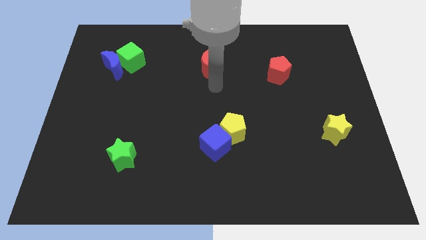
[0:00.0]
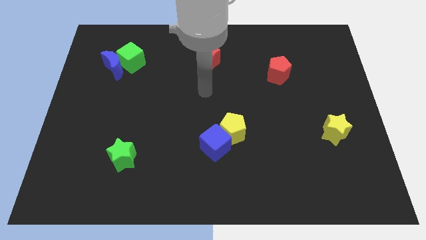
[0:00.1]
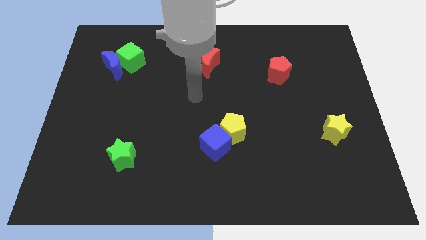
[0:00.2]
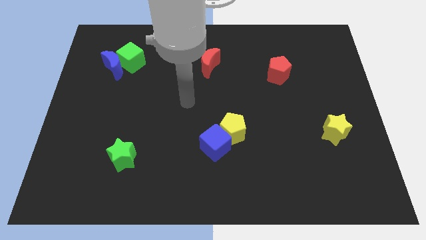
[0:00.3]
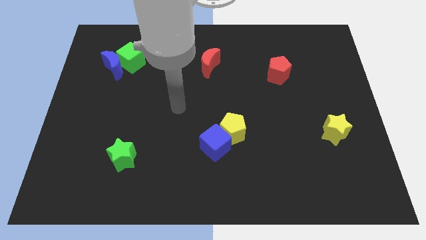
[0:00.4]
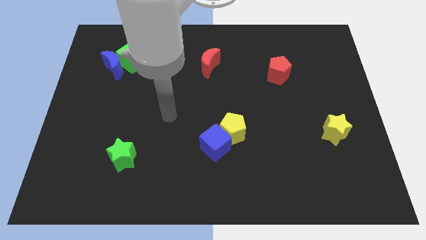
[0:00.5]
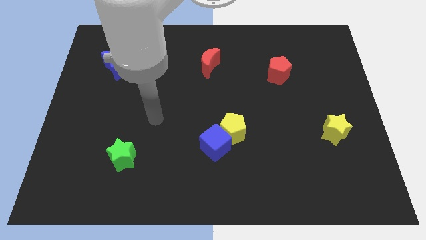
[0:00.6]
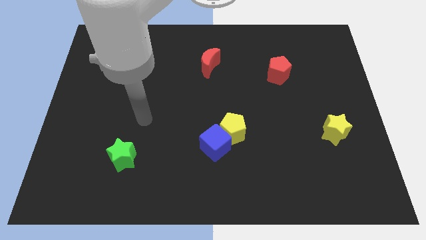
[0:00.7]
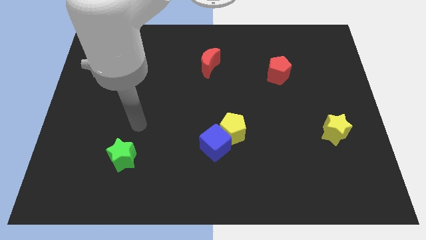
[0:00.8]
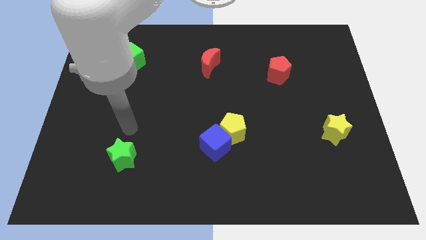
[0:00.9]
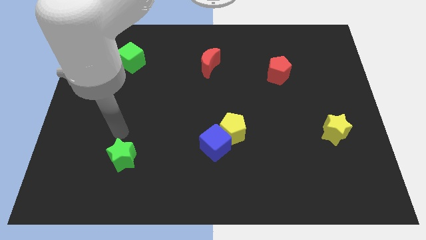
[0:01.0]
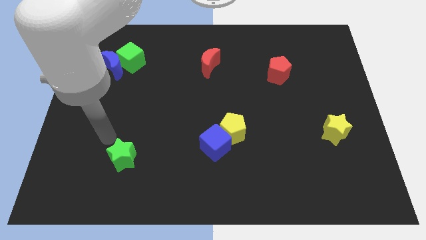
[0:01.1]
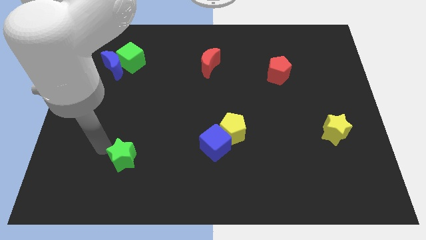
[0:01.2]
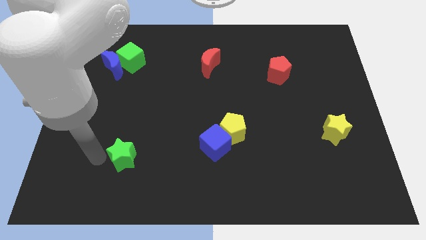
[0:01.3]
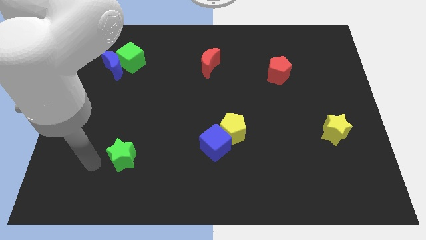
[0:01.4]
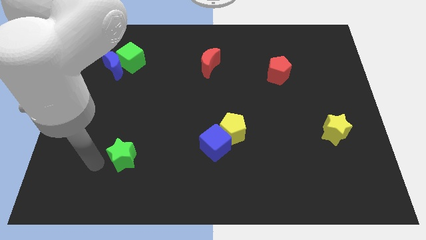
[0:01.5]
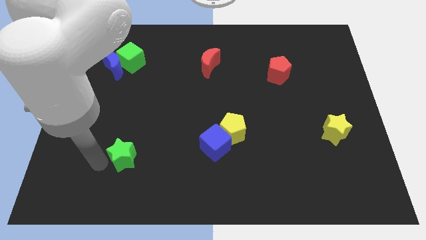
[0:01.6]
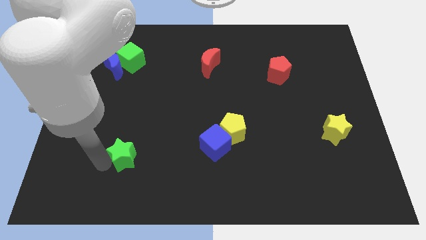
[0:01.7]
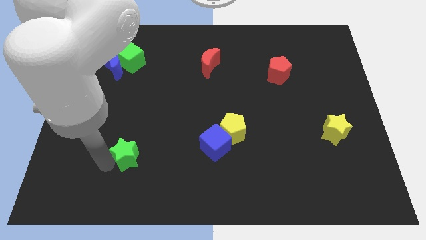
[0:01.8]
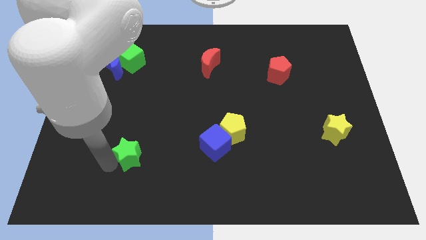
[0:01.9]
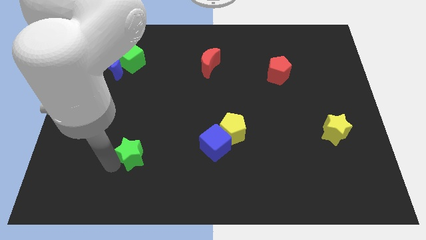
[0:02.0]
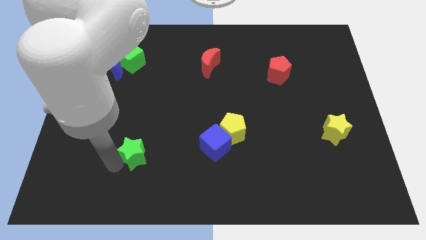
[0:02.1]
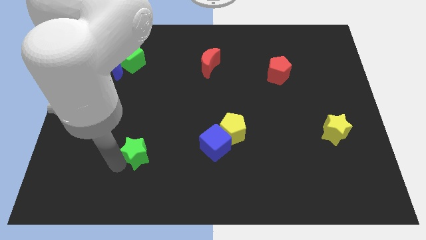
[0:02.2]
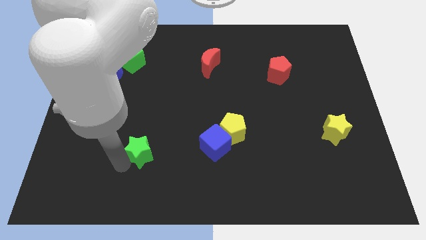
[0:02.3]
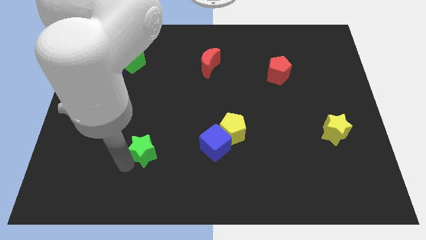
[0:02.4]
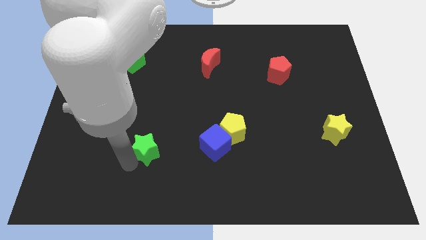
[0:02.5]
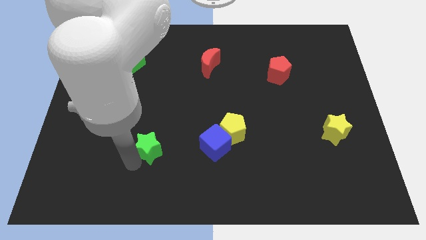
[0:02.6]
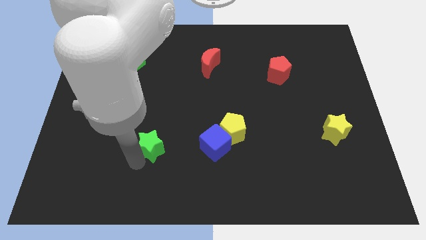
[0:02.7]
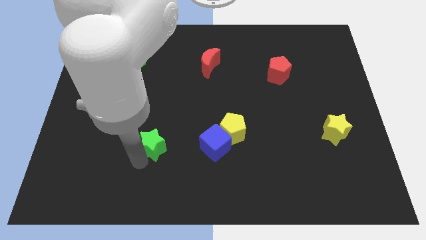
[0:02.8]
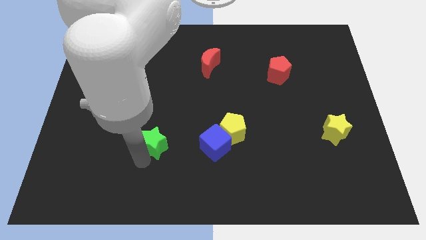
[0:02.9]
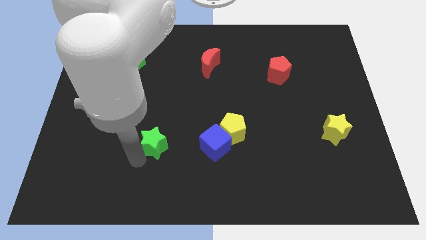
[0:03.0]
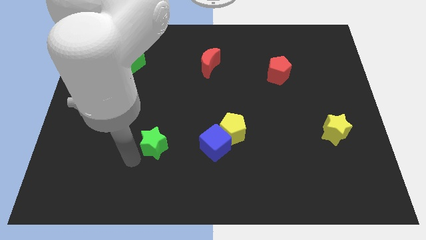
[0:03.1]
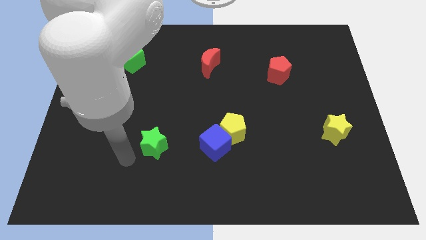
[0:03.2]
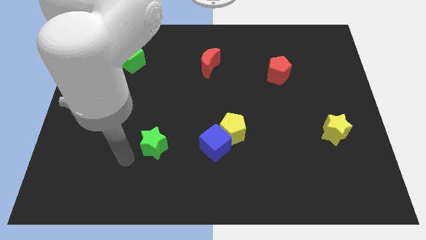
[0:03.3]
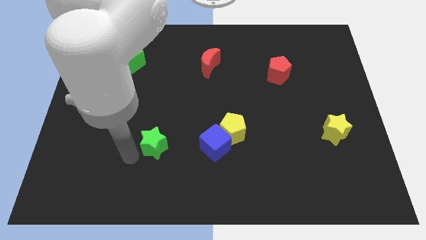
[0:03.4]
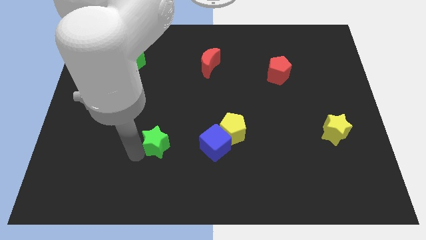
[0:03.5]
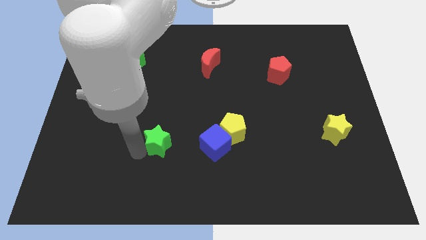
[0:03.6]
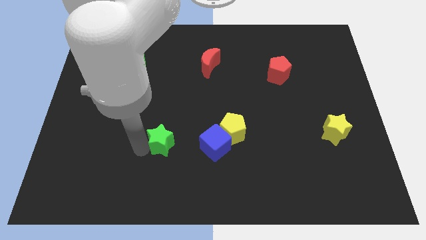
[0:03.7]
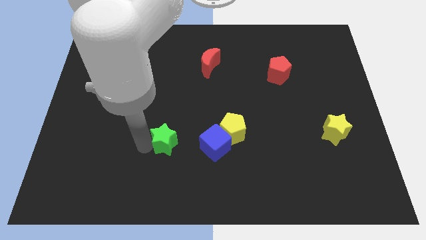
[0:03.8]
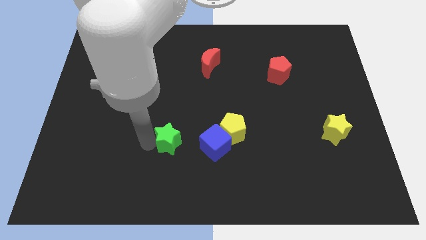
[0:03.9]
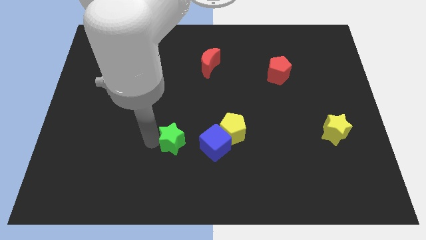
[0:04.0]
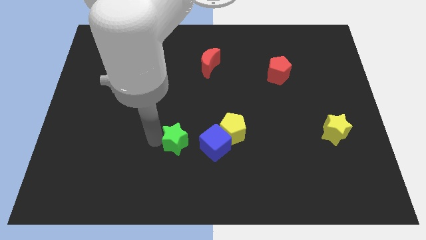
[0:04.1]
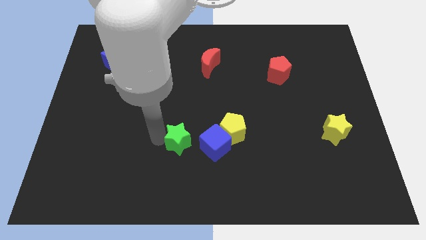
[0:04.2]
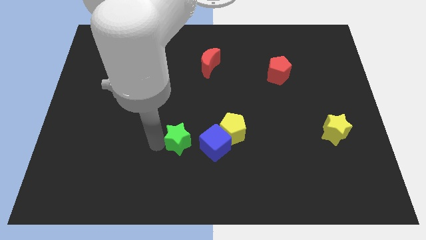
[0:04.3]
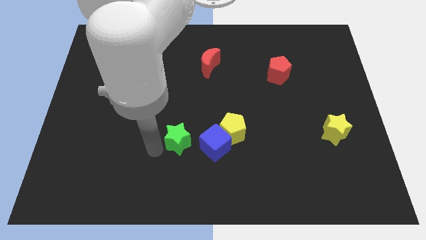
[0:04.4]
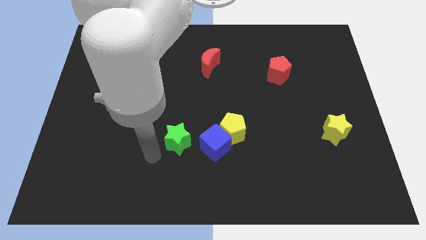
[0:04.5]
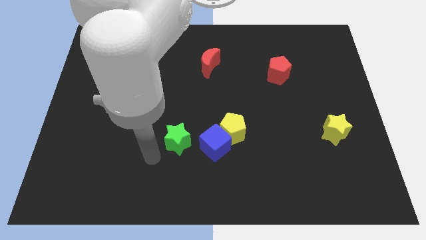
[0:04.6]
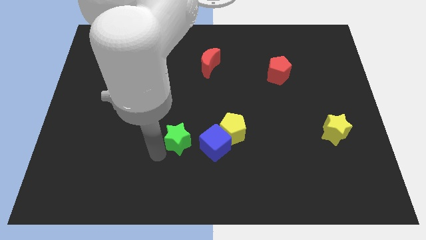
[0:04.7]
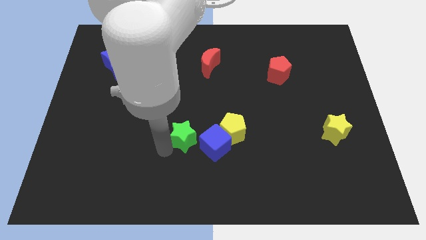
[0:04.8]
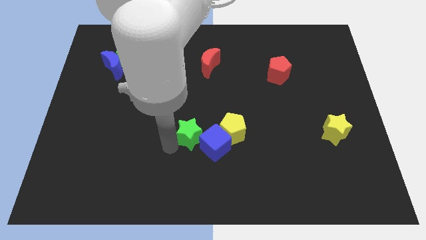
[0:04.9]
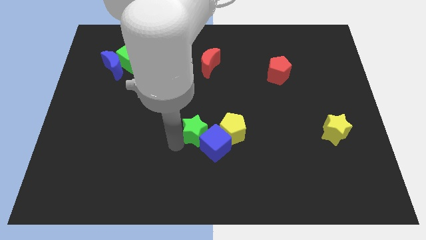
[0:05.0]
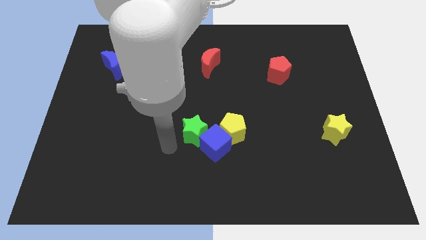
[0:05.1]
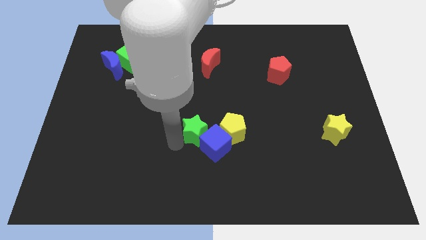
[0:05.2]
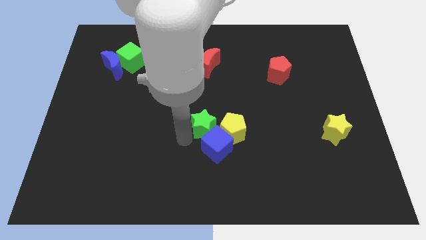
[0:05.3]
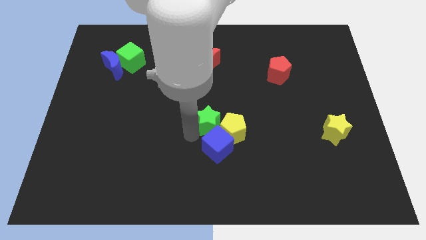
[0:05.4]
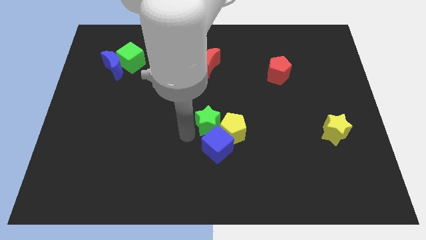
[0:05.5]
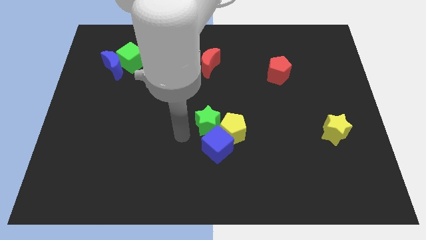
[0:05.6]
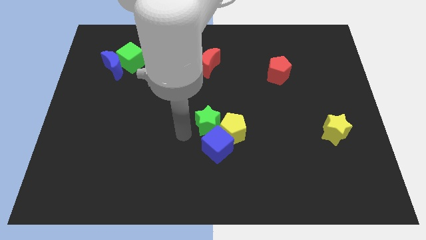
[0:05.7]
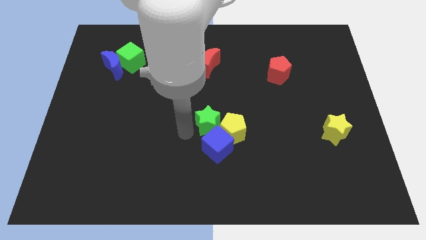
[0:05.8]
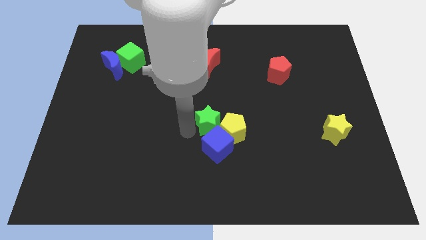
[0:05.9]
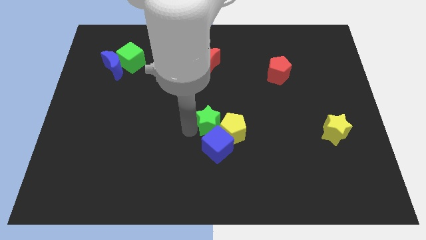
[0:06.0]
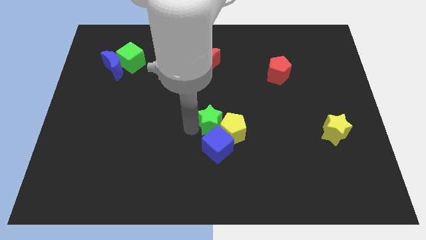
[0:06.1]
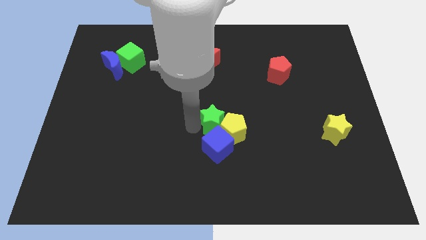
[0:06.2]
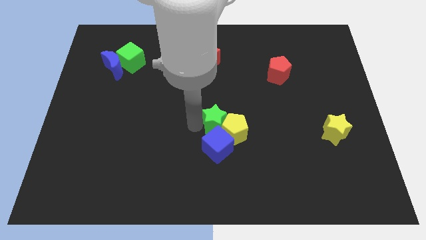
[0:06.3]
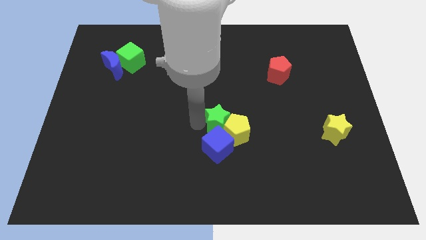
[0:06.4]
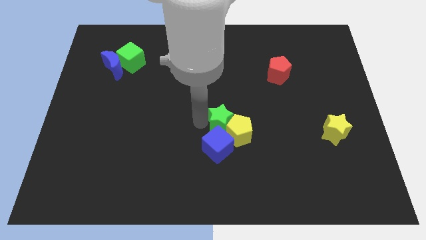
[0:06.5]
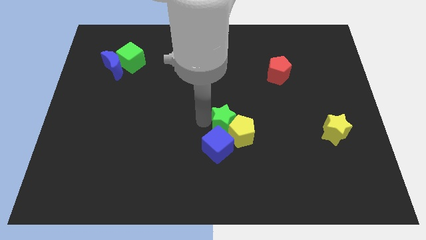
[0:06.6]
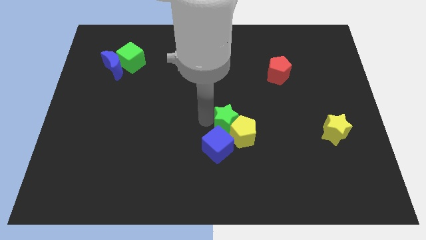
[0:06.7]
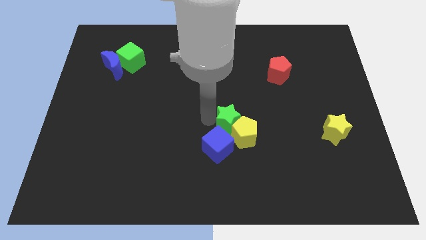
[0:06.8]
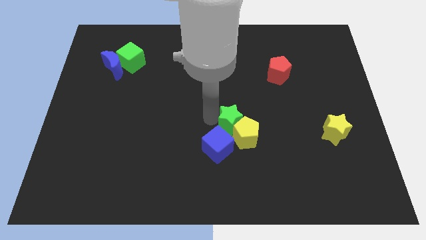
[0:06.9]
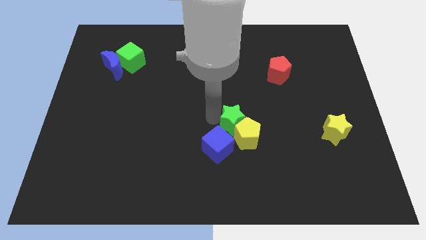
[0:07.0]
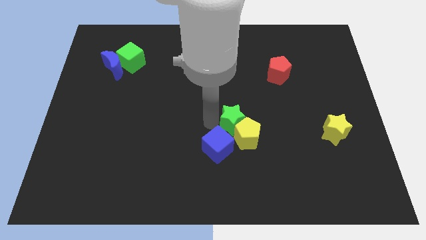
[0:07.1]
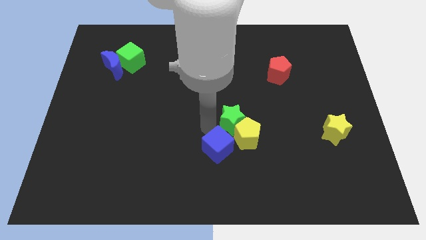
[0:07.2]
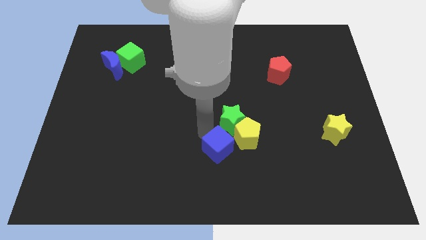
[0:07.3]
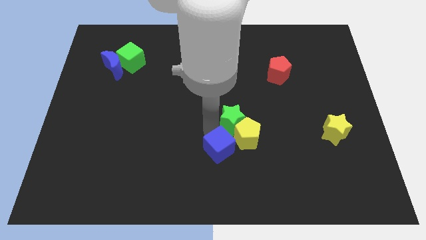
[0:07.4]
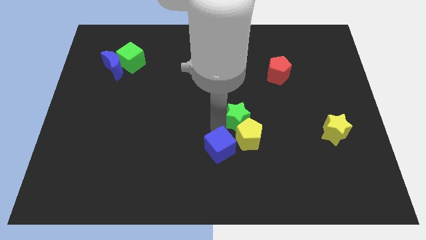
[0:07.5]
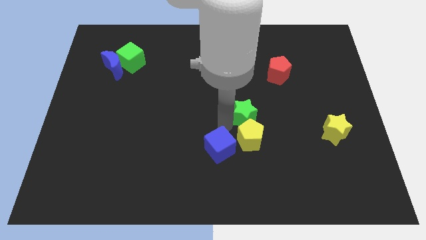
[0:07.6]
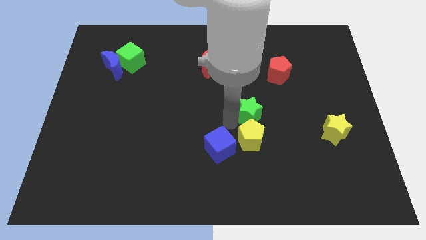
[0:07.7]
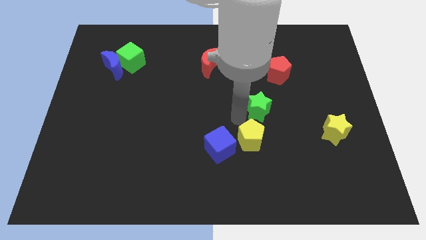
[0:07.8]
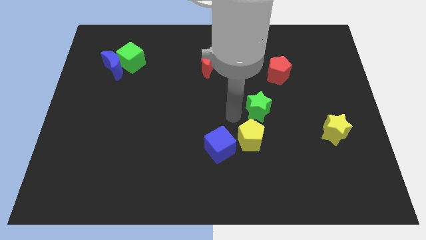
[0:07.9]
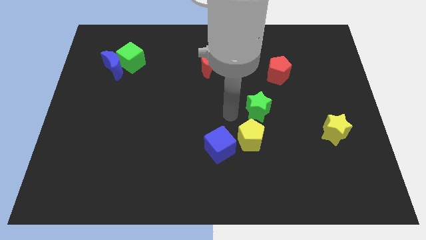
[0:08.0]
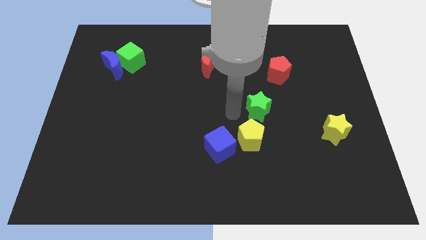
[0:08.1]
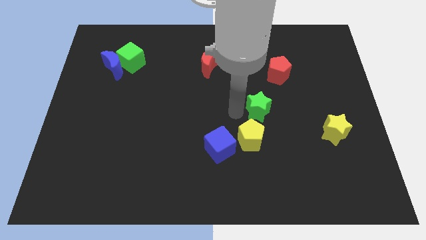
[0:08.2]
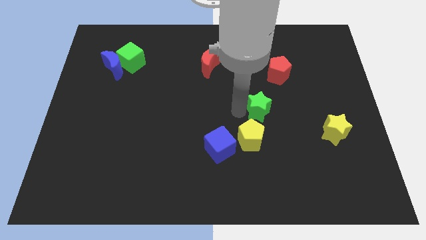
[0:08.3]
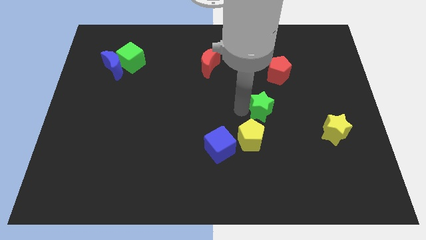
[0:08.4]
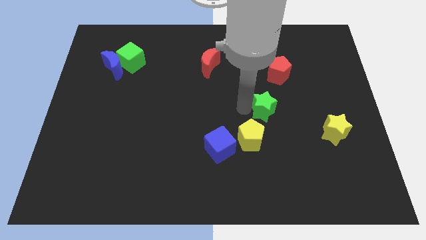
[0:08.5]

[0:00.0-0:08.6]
push the green star to the bottom side of the red pentagon
